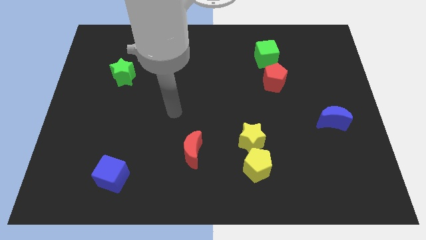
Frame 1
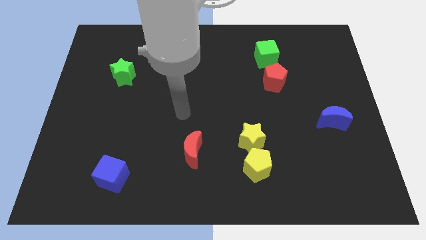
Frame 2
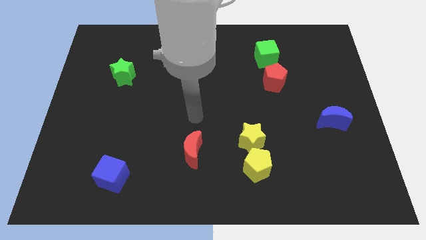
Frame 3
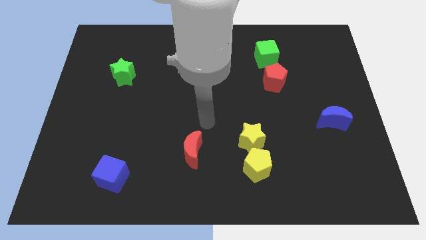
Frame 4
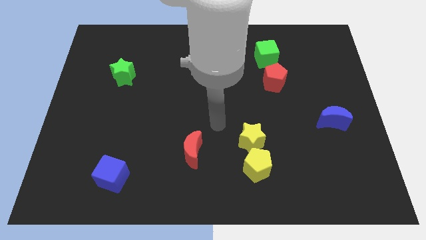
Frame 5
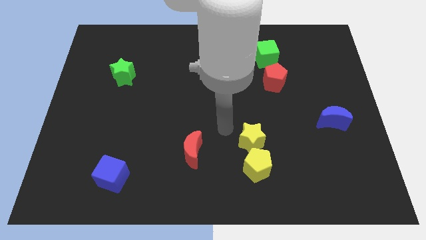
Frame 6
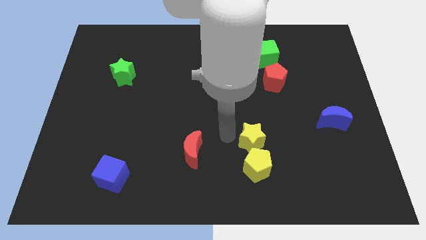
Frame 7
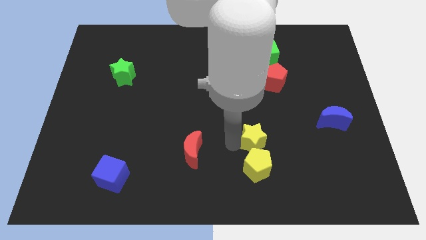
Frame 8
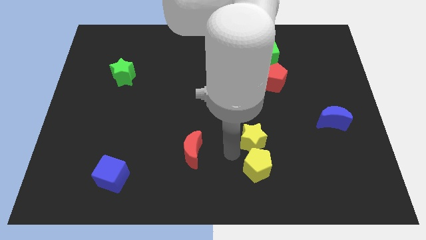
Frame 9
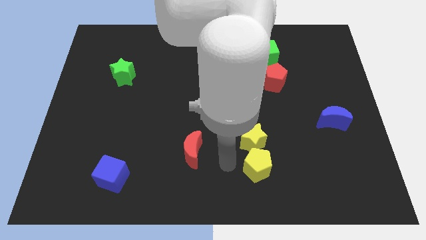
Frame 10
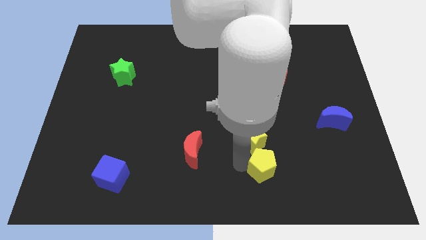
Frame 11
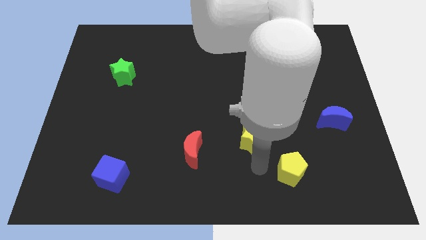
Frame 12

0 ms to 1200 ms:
move the yellow star away from the yellow pentagon

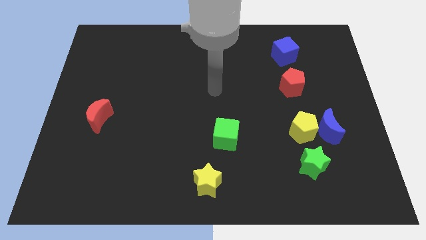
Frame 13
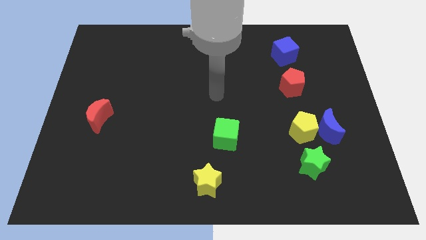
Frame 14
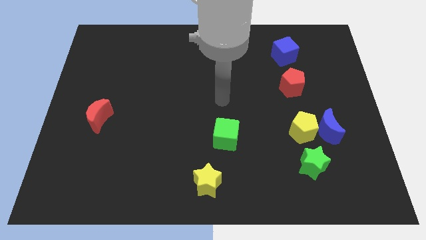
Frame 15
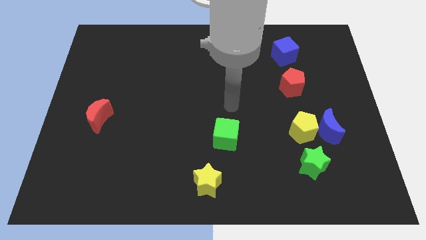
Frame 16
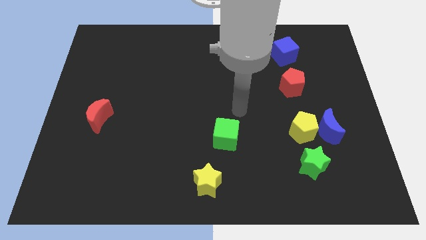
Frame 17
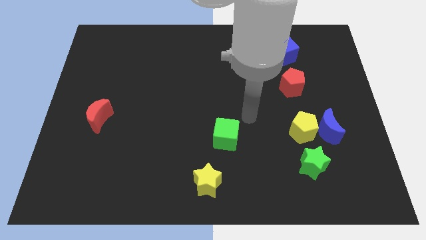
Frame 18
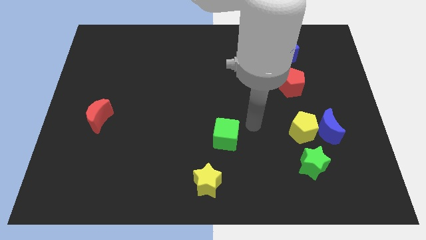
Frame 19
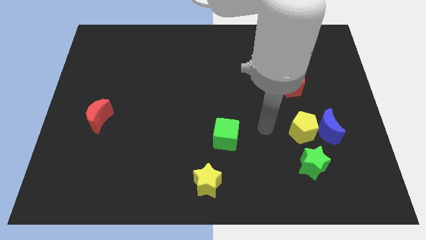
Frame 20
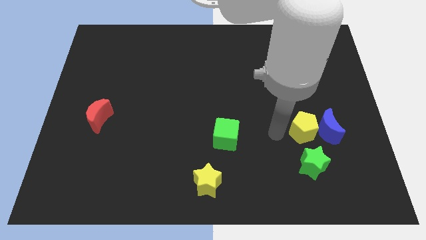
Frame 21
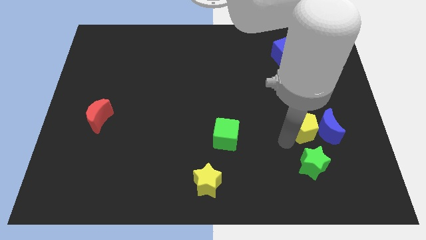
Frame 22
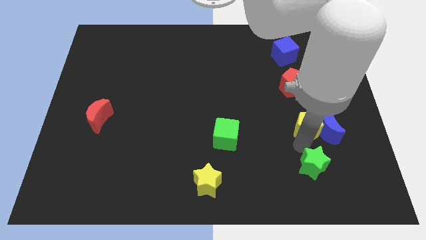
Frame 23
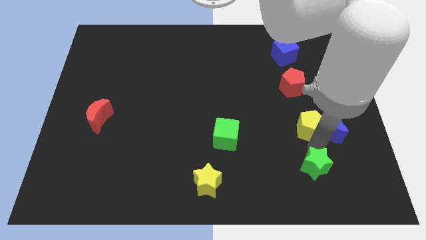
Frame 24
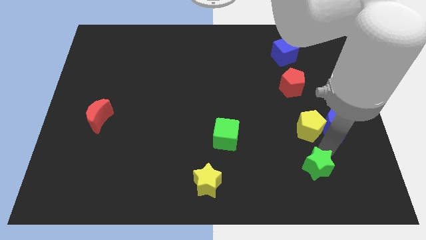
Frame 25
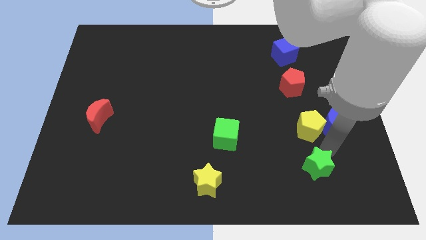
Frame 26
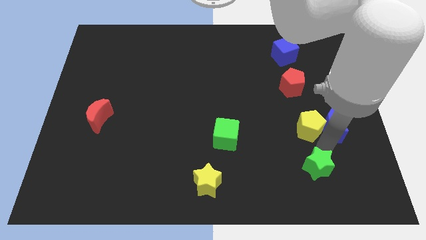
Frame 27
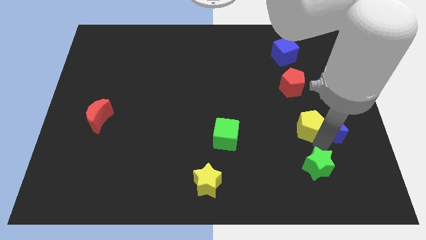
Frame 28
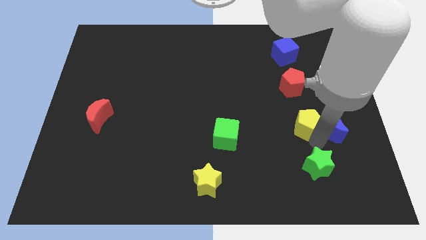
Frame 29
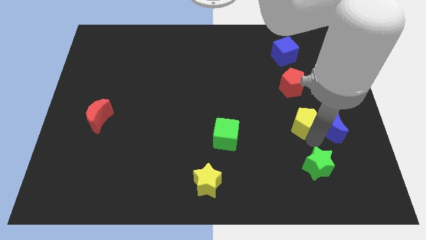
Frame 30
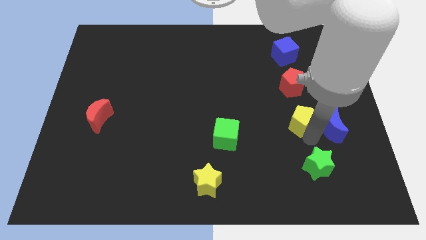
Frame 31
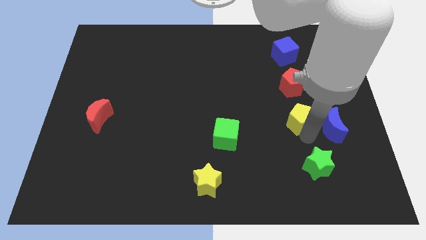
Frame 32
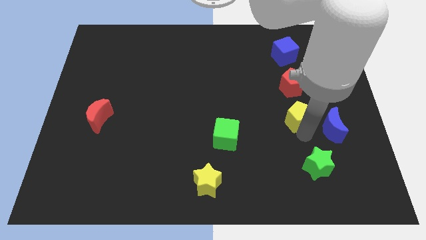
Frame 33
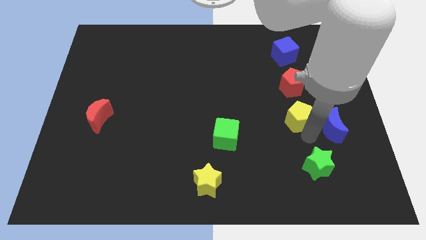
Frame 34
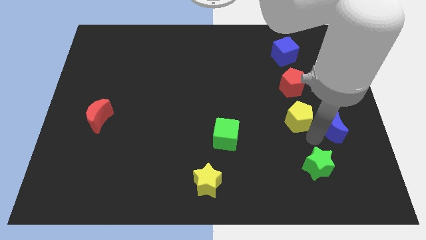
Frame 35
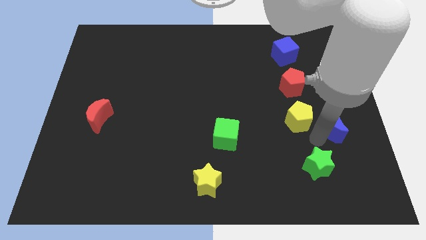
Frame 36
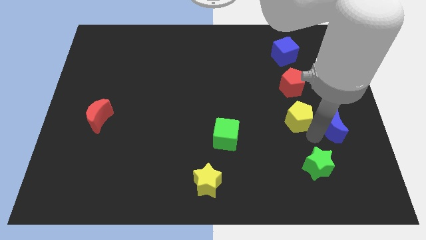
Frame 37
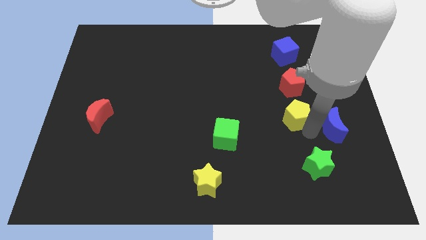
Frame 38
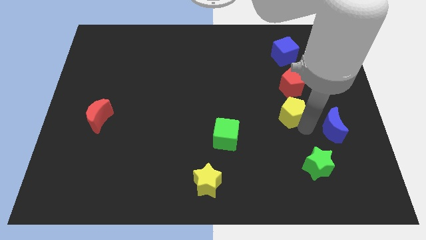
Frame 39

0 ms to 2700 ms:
pull the yellow pentagon apart from the blue moon and green star

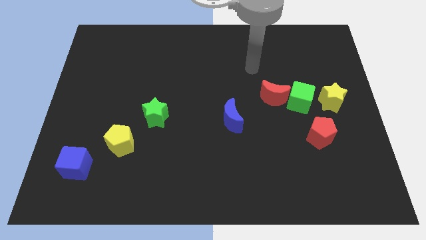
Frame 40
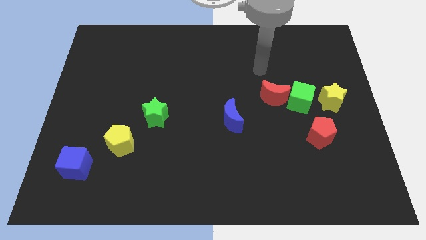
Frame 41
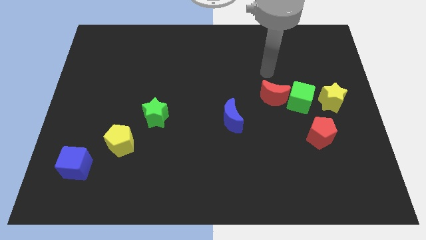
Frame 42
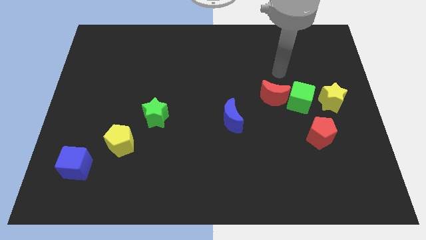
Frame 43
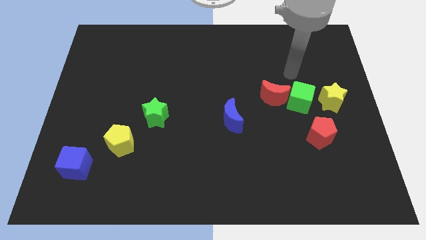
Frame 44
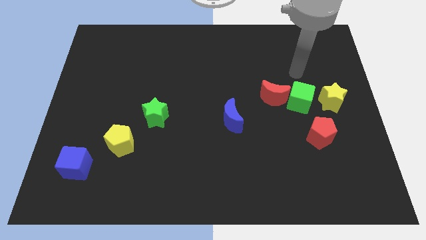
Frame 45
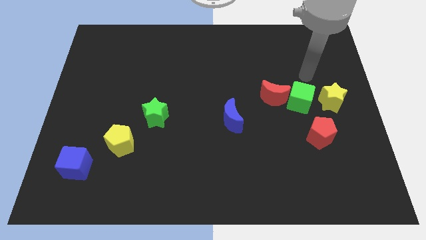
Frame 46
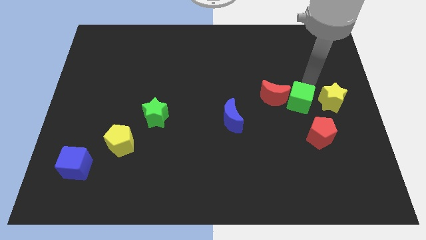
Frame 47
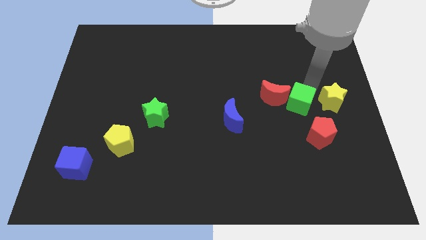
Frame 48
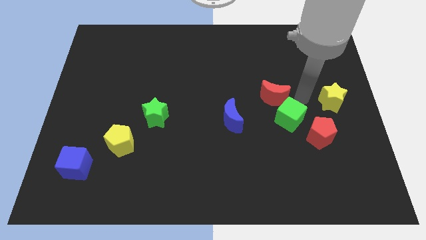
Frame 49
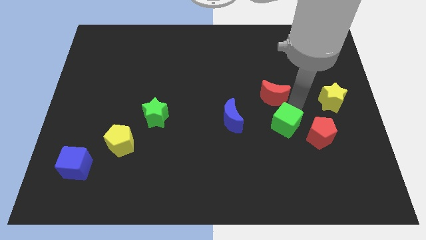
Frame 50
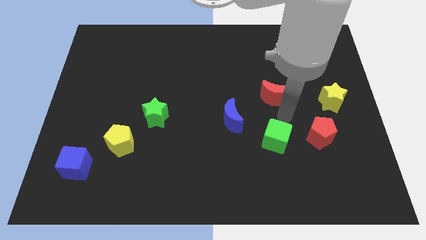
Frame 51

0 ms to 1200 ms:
separate the red moon from the green cube

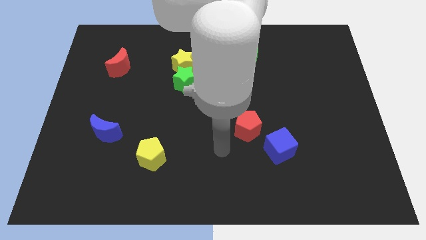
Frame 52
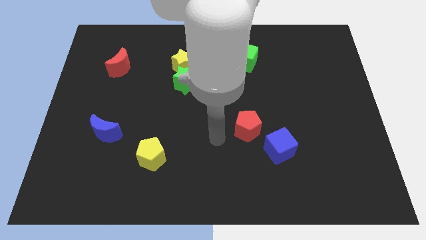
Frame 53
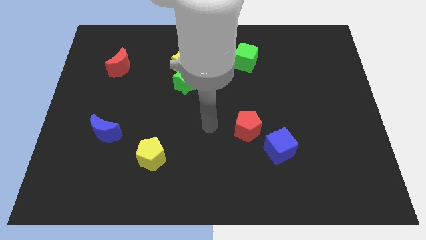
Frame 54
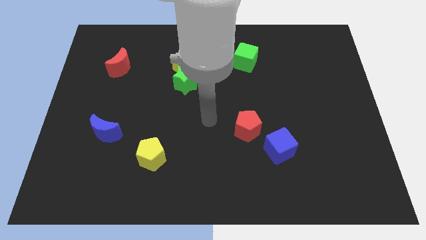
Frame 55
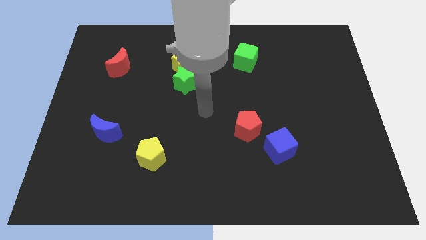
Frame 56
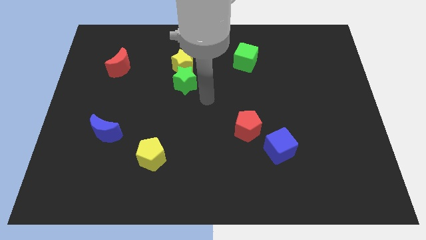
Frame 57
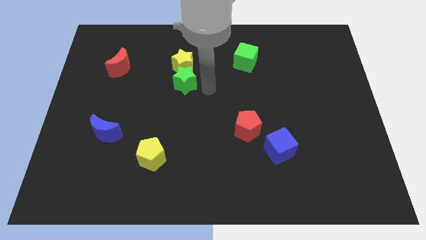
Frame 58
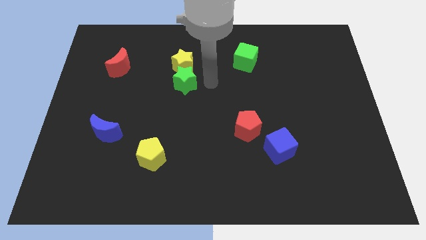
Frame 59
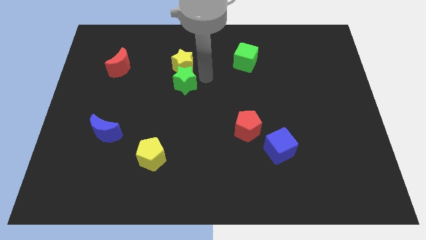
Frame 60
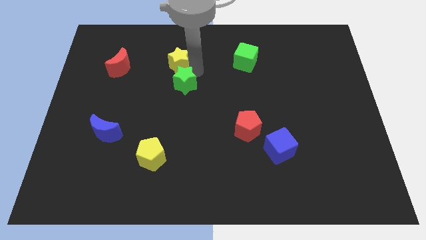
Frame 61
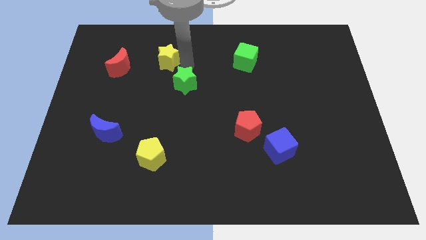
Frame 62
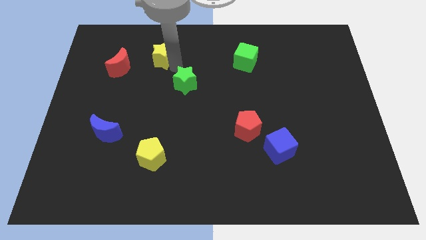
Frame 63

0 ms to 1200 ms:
separate the green star from the yellow star

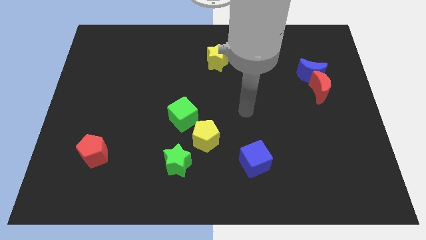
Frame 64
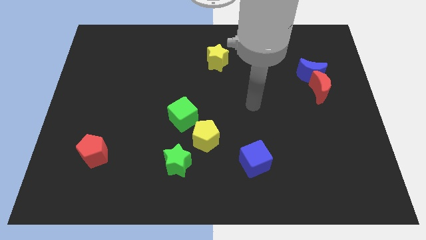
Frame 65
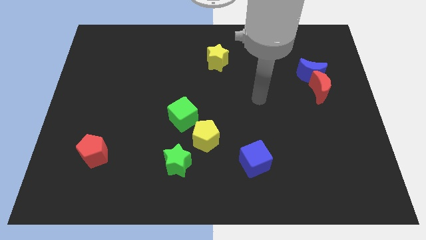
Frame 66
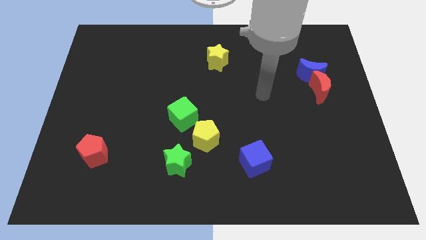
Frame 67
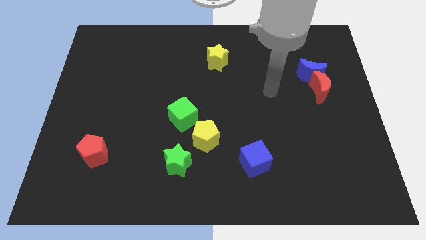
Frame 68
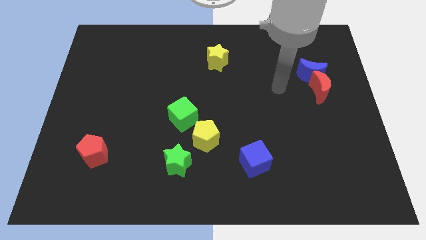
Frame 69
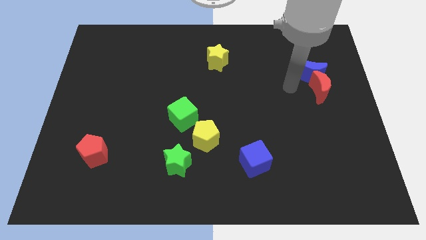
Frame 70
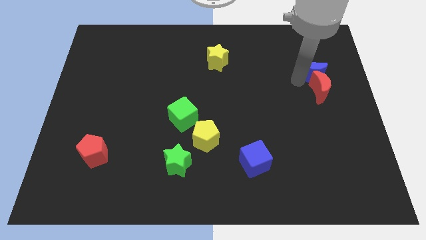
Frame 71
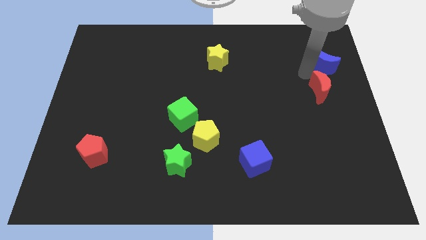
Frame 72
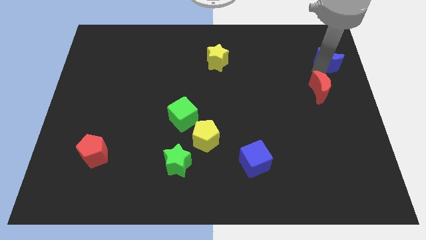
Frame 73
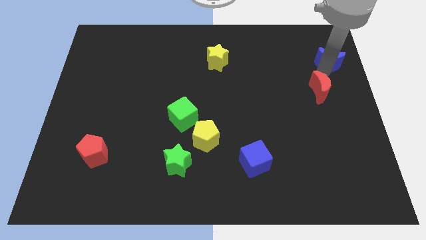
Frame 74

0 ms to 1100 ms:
move the red moon away from the blue moon

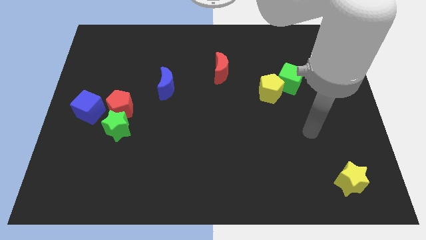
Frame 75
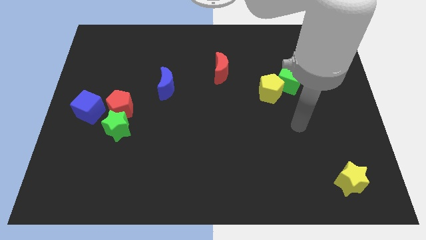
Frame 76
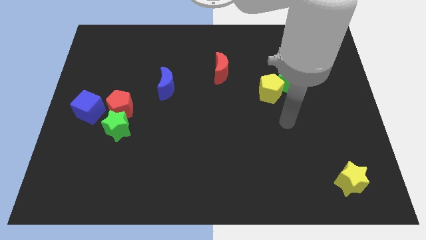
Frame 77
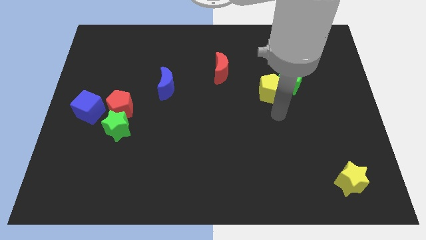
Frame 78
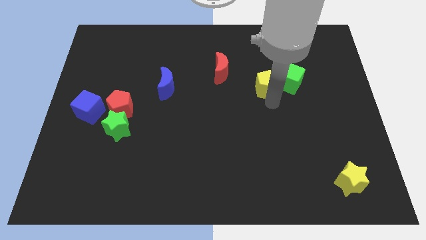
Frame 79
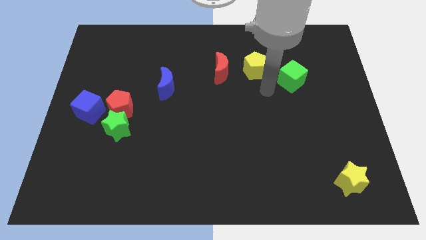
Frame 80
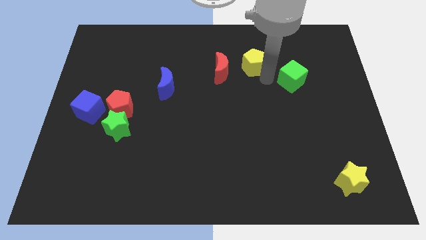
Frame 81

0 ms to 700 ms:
pull the green cube apart from the yellow pentagon

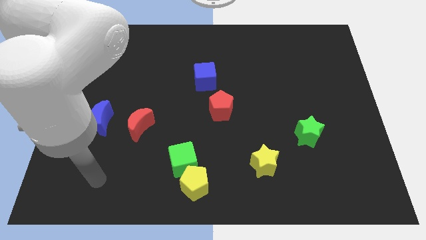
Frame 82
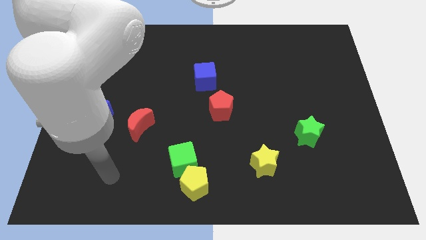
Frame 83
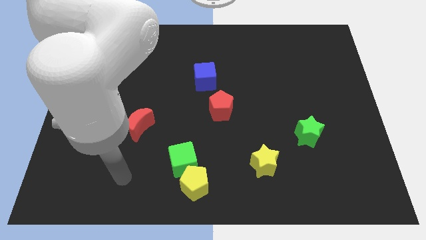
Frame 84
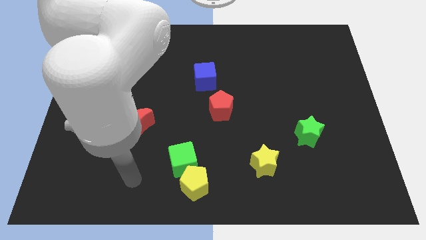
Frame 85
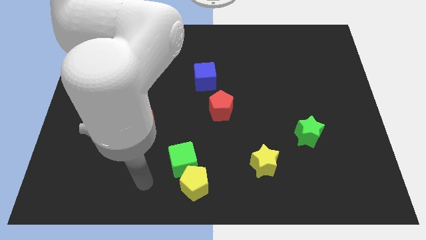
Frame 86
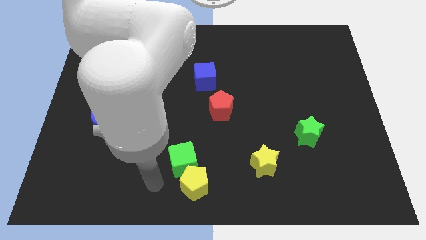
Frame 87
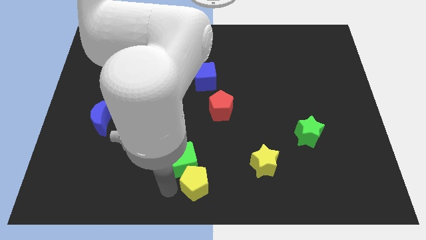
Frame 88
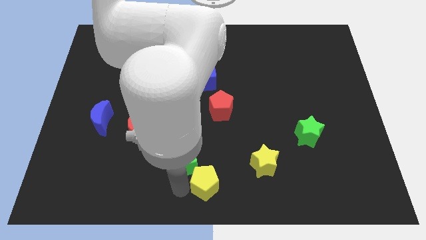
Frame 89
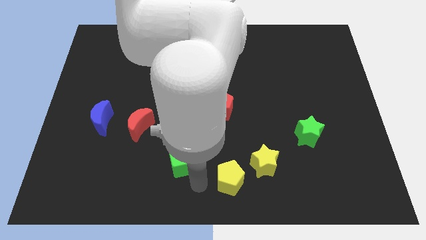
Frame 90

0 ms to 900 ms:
separate the green cube from the yellow pentagon

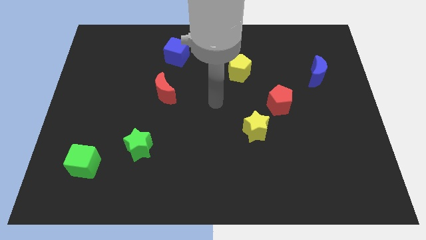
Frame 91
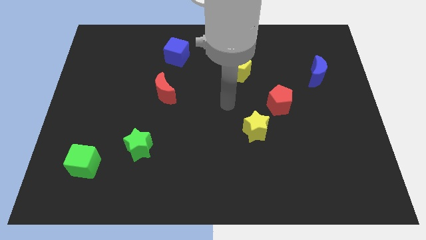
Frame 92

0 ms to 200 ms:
separate the red pentagon from the yellow star

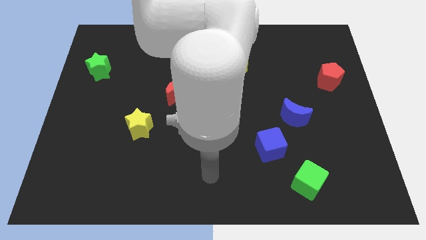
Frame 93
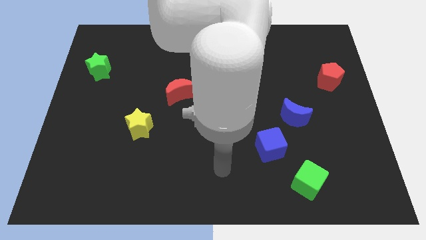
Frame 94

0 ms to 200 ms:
separate the blue moon from the blue cube
